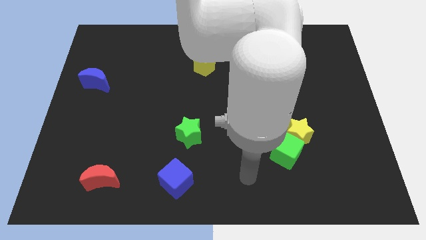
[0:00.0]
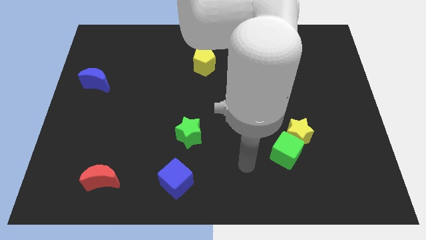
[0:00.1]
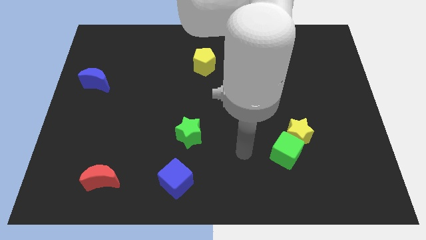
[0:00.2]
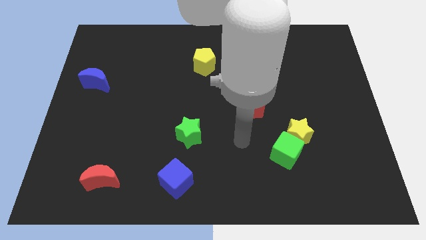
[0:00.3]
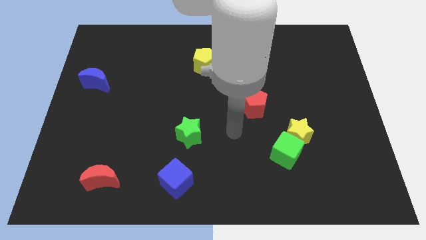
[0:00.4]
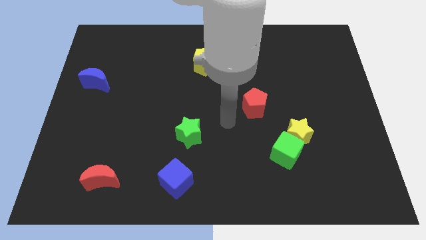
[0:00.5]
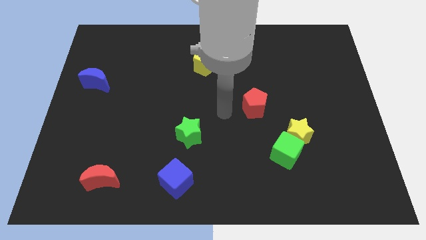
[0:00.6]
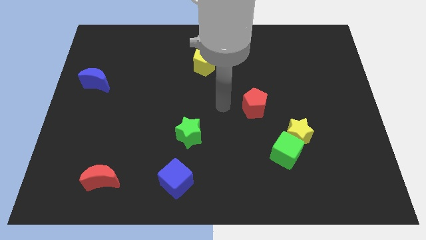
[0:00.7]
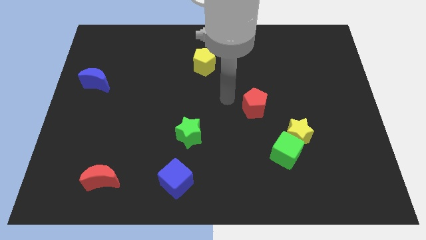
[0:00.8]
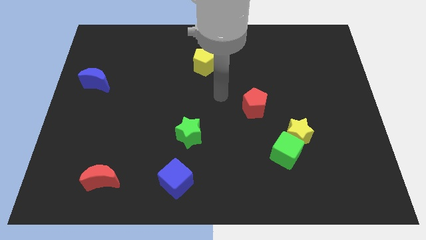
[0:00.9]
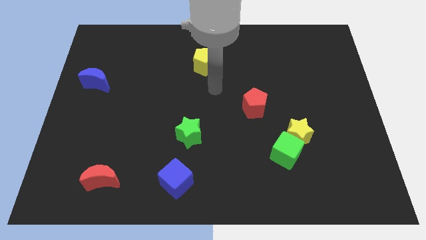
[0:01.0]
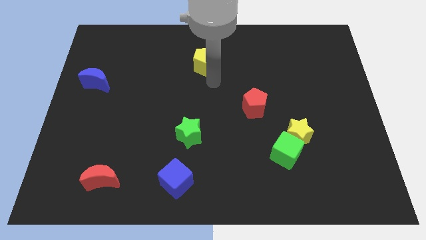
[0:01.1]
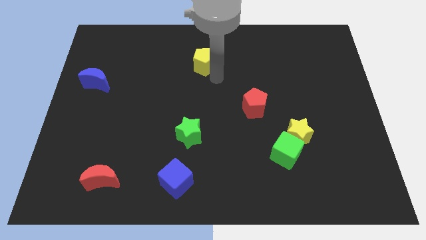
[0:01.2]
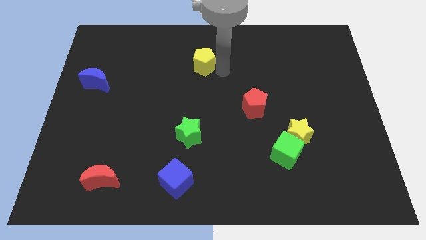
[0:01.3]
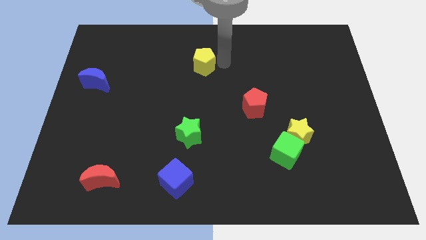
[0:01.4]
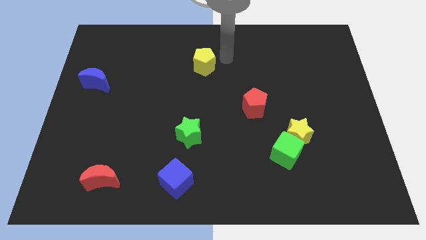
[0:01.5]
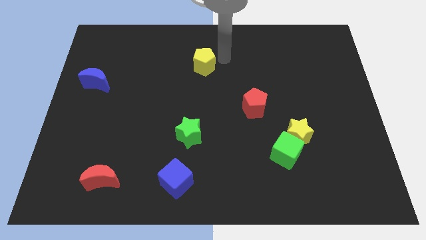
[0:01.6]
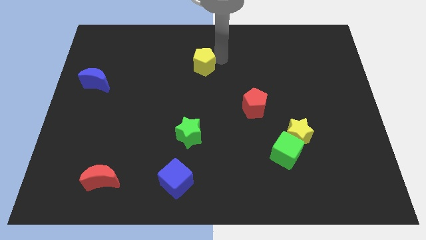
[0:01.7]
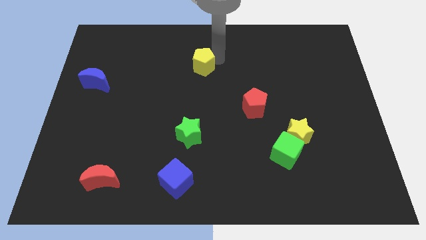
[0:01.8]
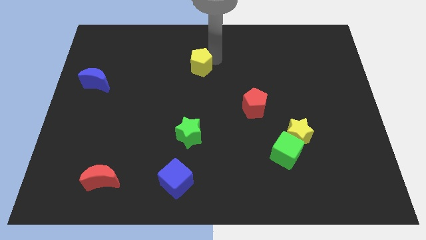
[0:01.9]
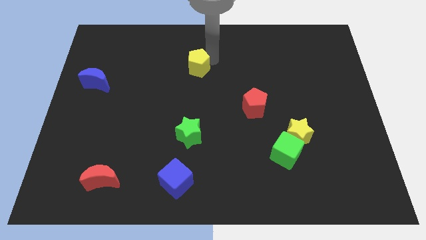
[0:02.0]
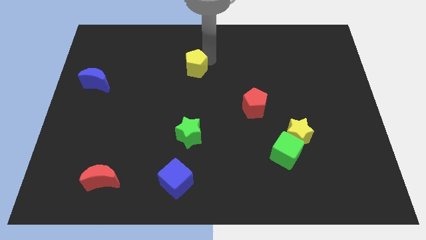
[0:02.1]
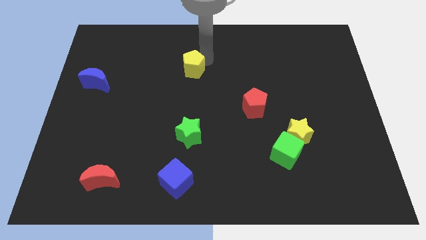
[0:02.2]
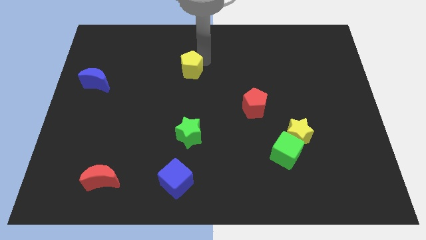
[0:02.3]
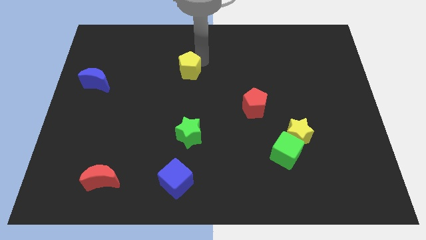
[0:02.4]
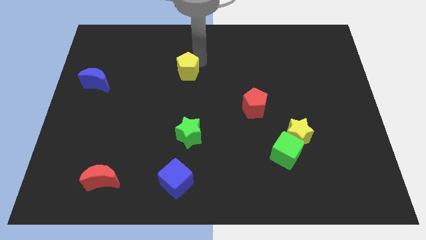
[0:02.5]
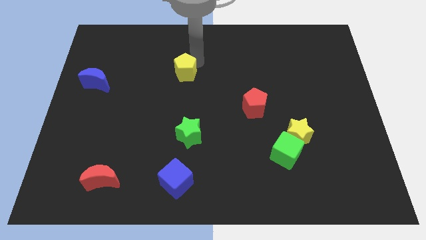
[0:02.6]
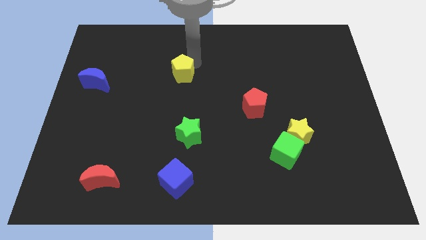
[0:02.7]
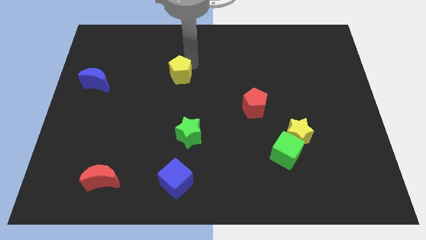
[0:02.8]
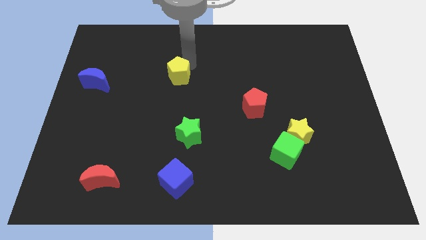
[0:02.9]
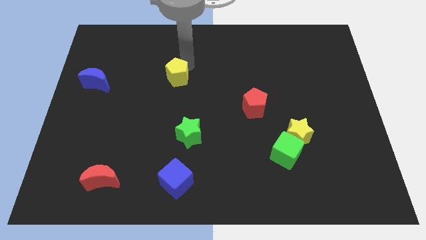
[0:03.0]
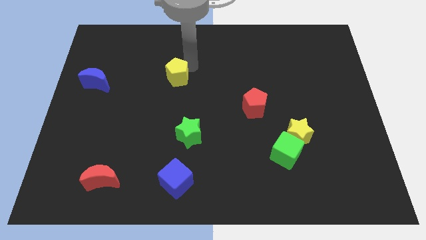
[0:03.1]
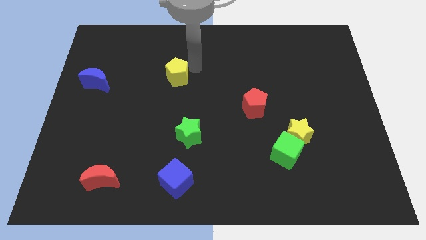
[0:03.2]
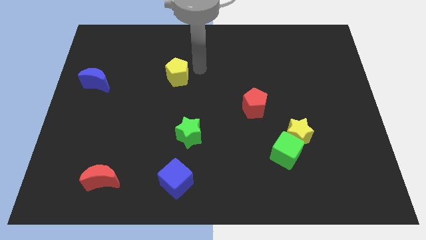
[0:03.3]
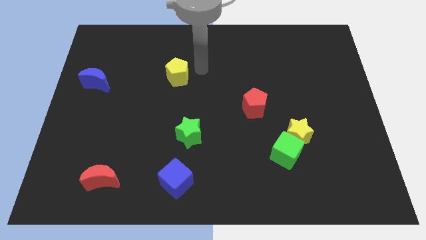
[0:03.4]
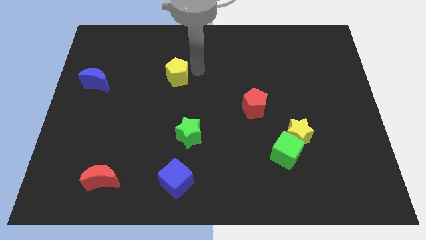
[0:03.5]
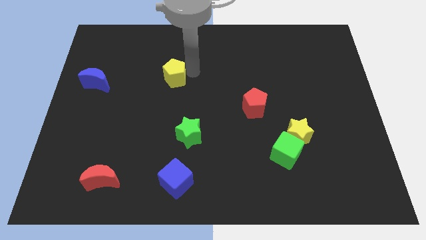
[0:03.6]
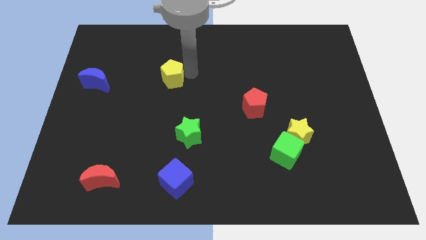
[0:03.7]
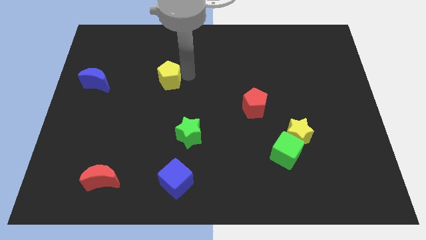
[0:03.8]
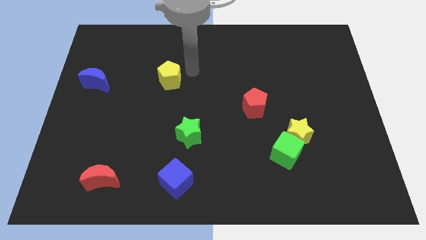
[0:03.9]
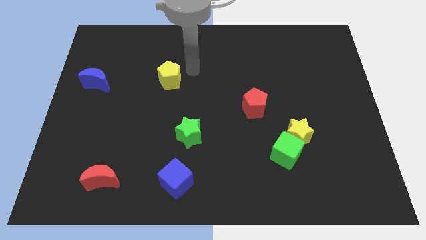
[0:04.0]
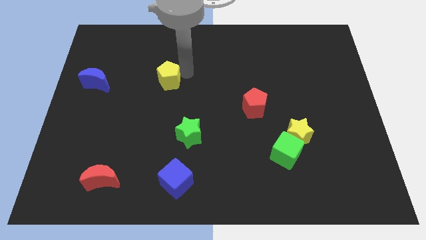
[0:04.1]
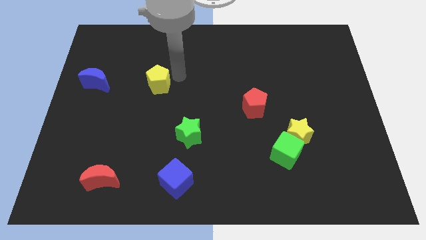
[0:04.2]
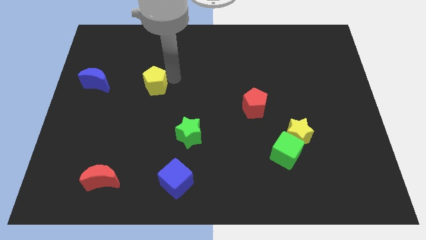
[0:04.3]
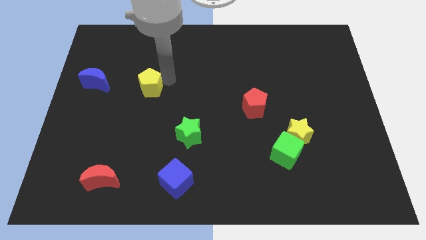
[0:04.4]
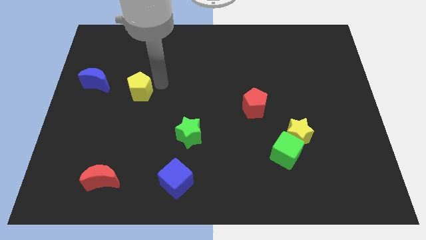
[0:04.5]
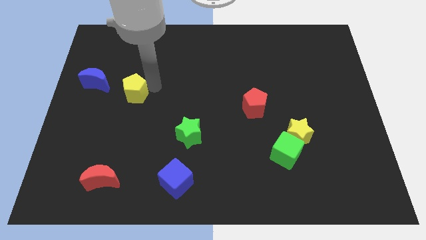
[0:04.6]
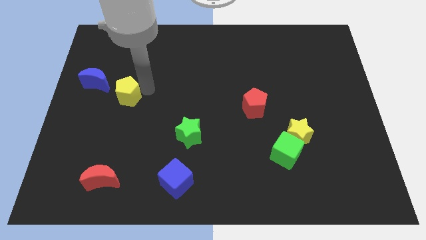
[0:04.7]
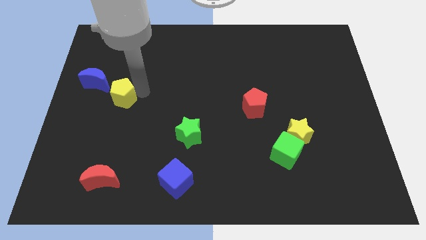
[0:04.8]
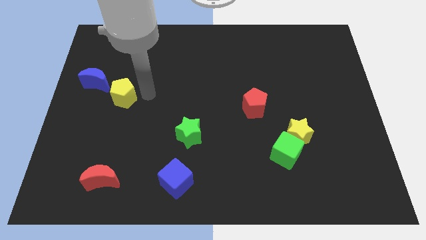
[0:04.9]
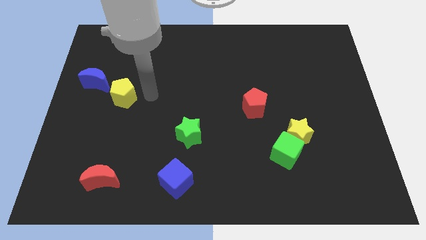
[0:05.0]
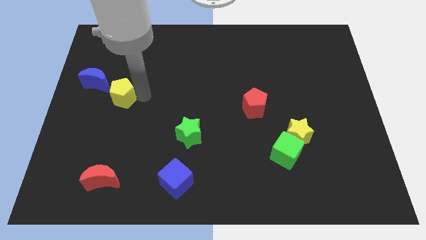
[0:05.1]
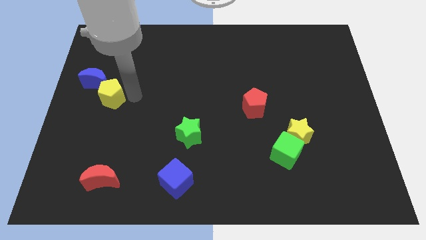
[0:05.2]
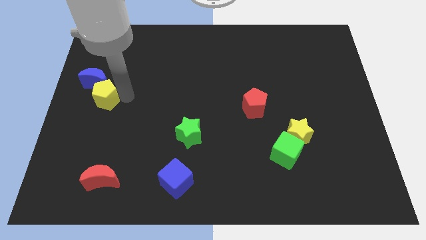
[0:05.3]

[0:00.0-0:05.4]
move the yellow pentagon to the left side

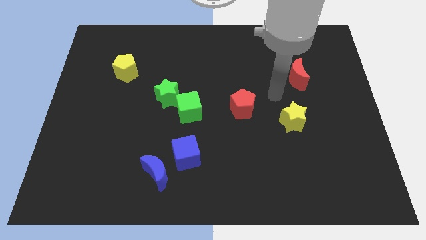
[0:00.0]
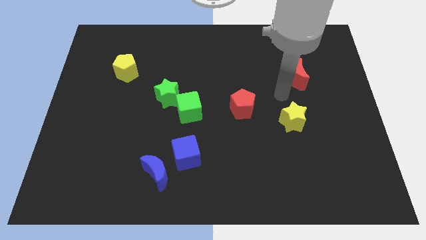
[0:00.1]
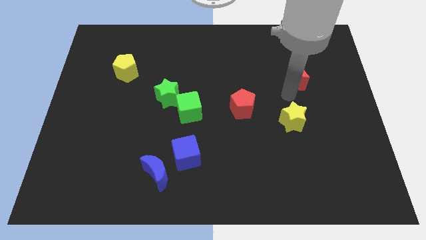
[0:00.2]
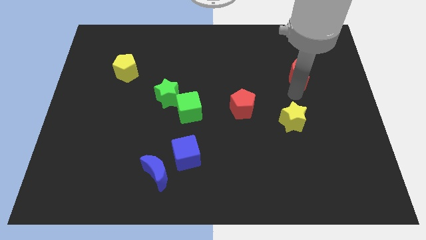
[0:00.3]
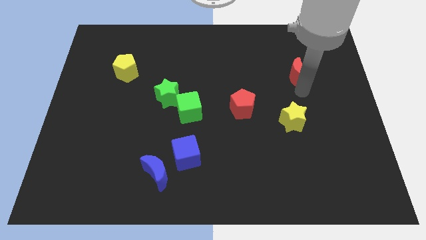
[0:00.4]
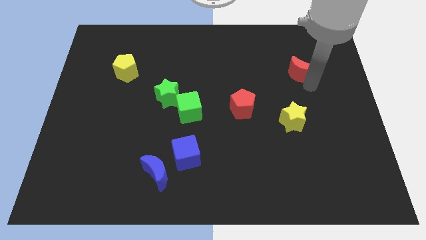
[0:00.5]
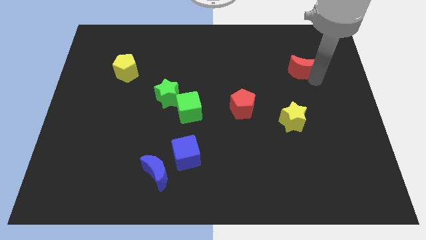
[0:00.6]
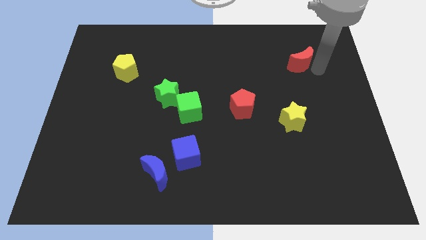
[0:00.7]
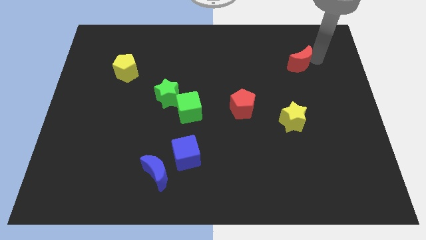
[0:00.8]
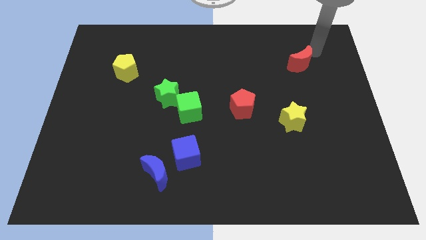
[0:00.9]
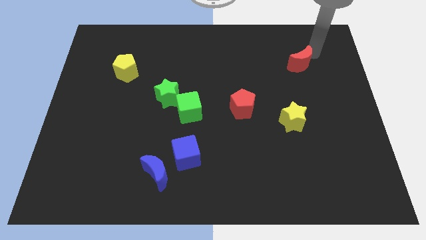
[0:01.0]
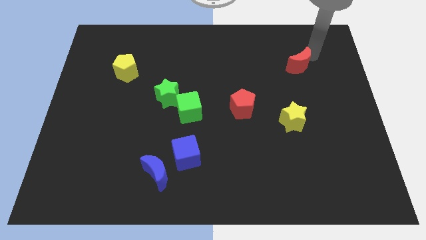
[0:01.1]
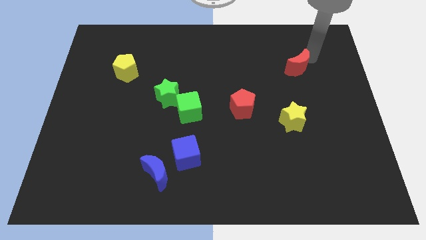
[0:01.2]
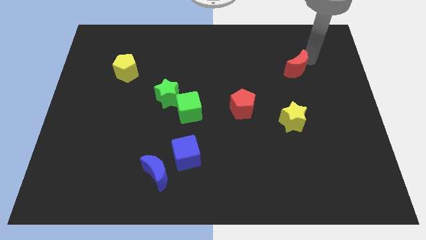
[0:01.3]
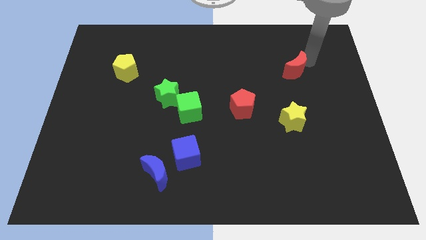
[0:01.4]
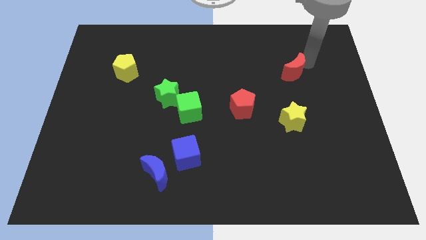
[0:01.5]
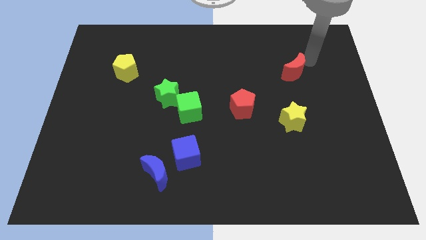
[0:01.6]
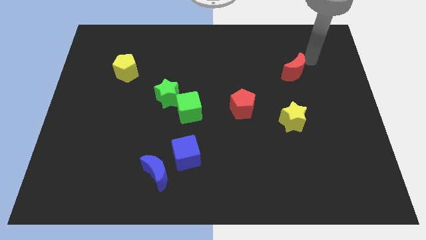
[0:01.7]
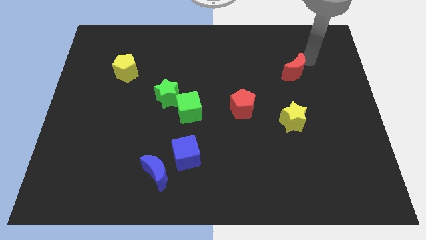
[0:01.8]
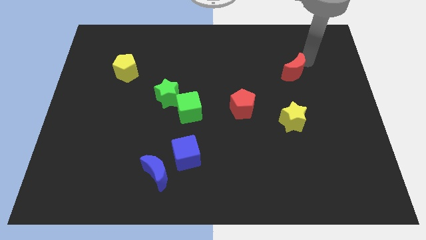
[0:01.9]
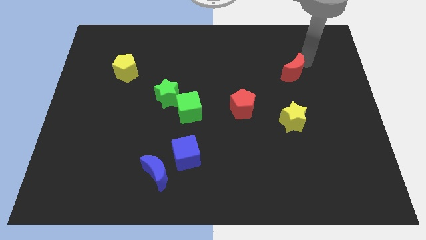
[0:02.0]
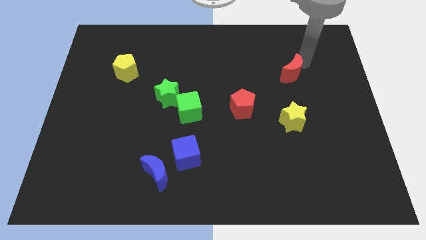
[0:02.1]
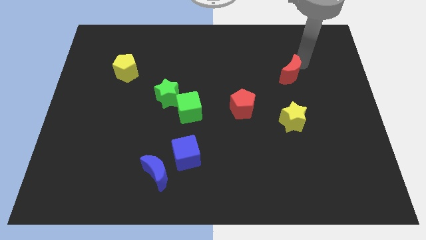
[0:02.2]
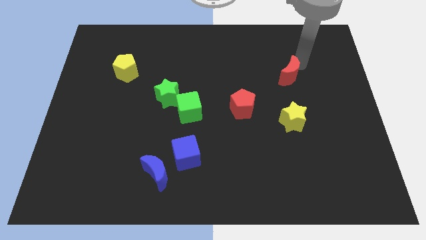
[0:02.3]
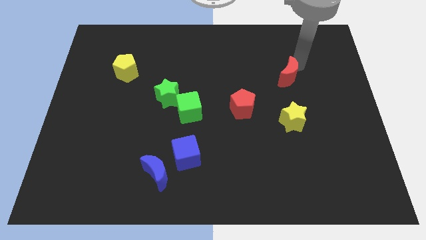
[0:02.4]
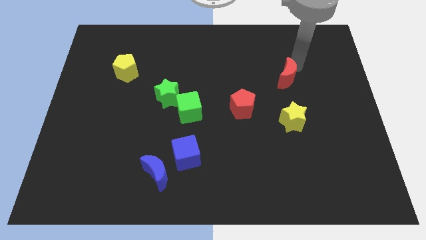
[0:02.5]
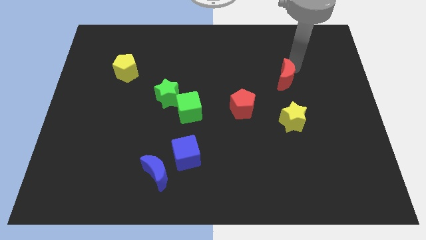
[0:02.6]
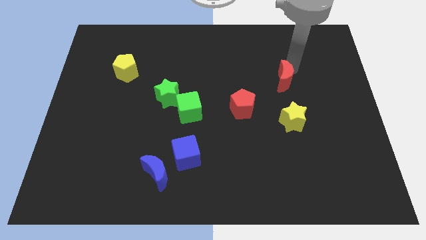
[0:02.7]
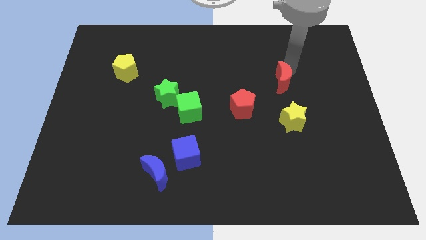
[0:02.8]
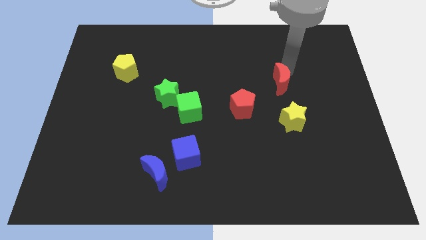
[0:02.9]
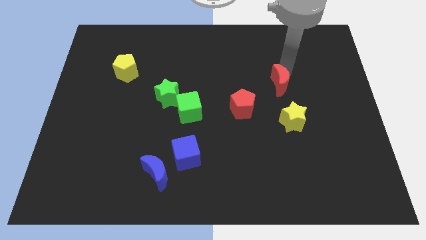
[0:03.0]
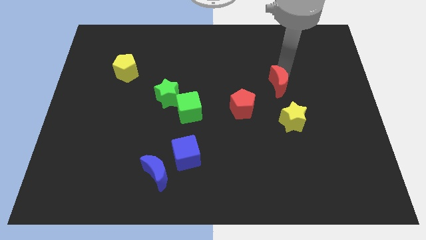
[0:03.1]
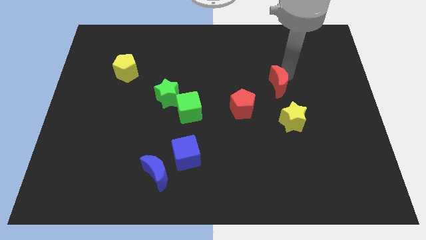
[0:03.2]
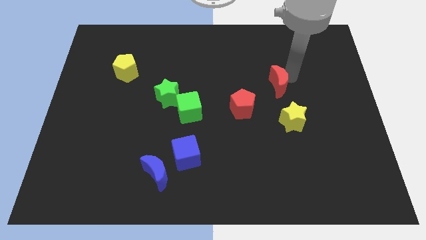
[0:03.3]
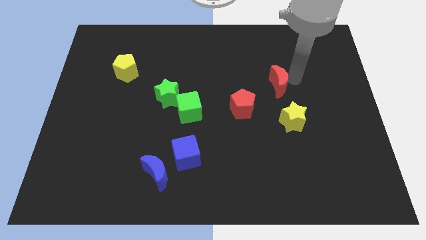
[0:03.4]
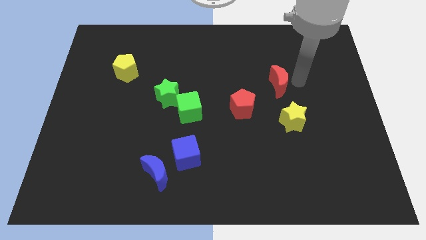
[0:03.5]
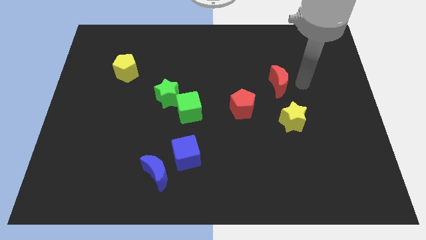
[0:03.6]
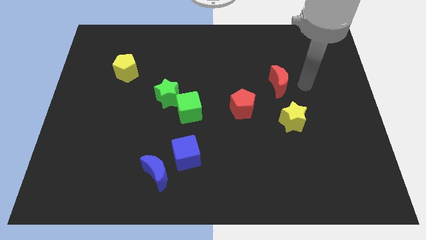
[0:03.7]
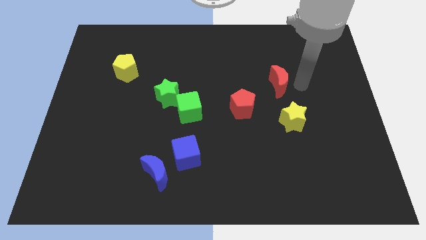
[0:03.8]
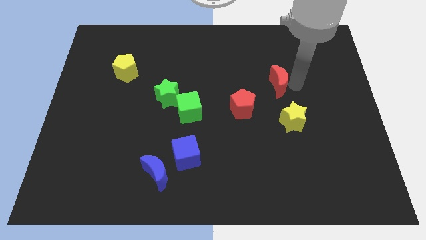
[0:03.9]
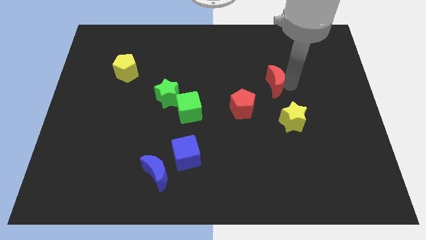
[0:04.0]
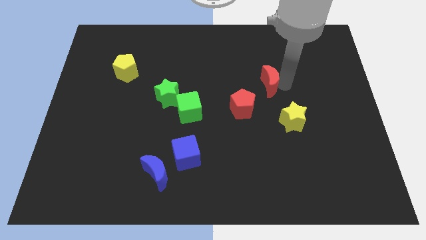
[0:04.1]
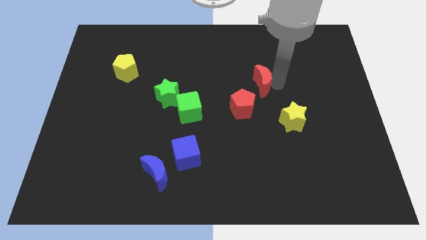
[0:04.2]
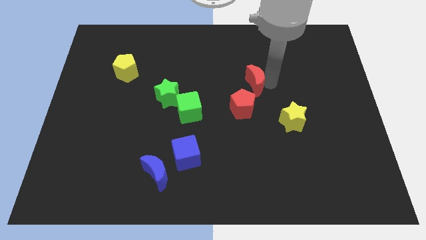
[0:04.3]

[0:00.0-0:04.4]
put the red moon to the middle of the board
